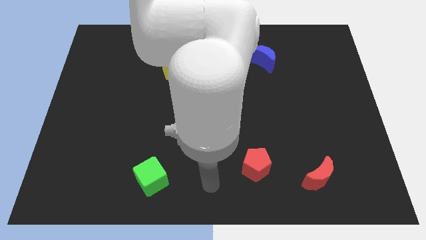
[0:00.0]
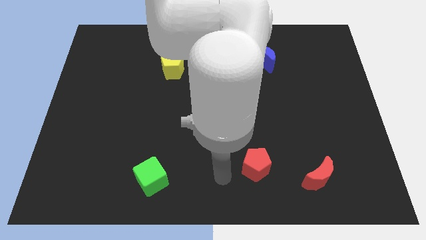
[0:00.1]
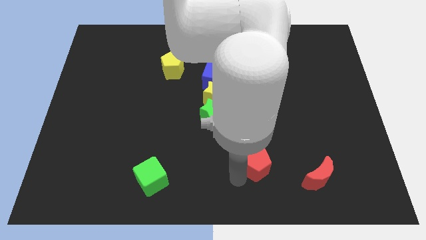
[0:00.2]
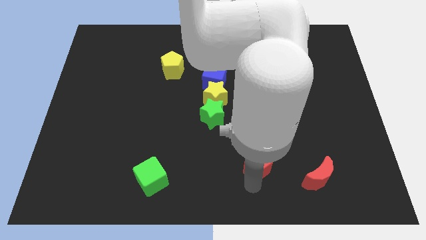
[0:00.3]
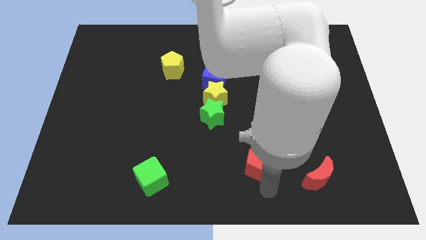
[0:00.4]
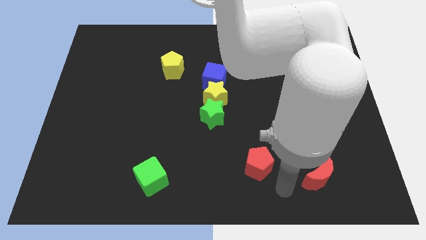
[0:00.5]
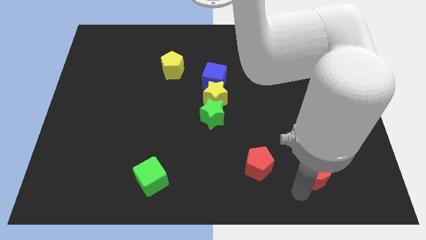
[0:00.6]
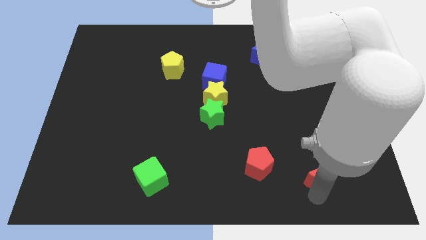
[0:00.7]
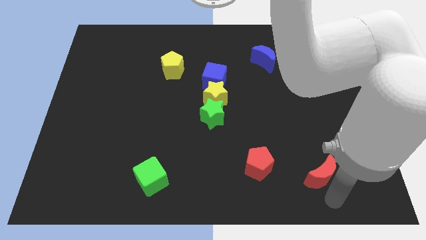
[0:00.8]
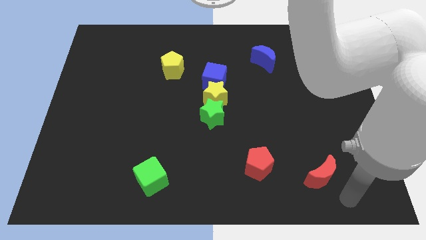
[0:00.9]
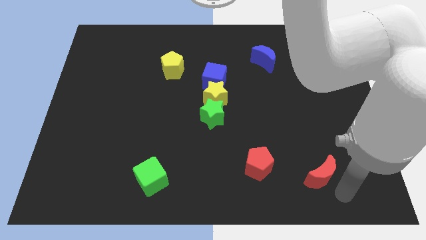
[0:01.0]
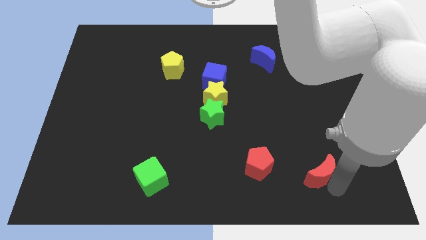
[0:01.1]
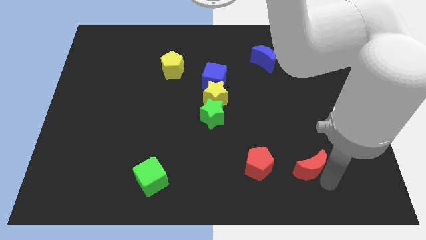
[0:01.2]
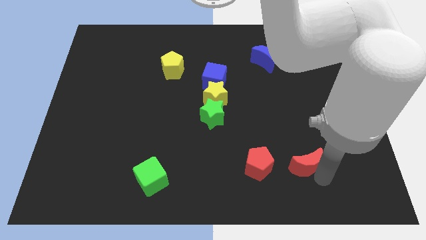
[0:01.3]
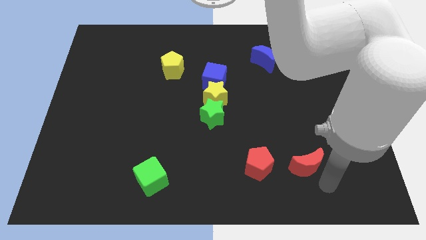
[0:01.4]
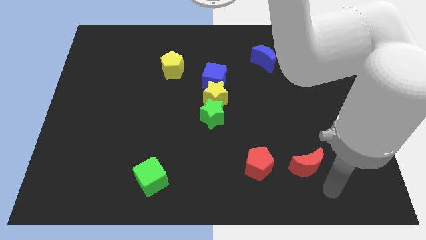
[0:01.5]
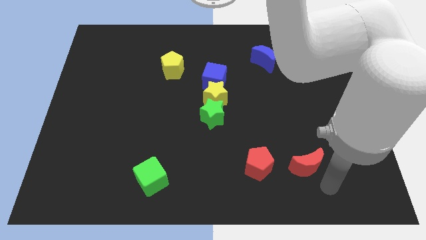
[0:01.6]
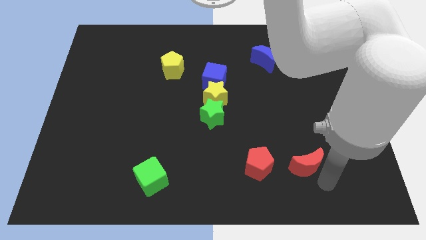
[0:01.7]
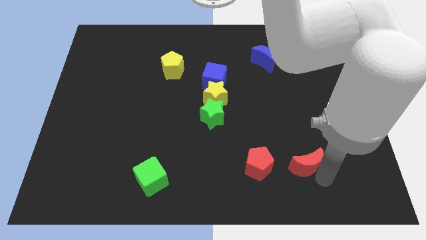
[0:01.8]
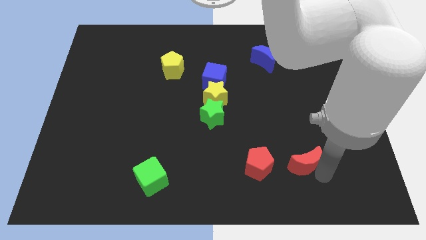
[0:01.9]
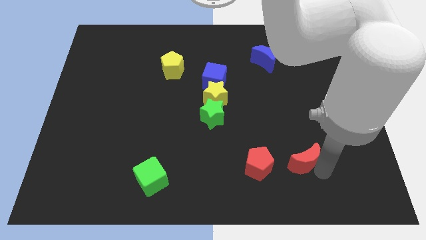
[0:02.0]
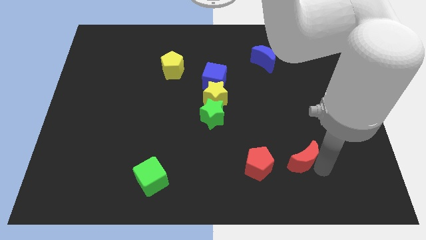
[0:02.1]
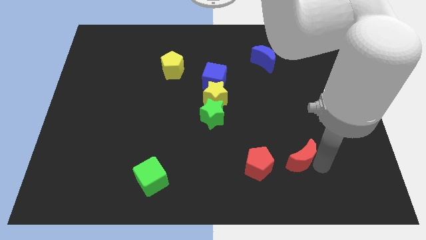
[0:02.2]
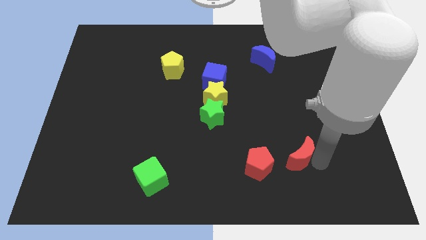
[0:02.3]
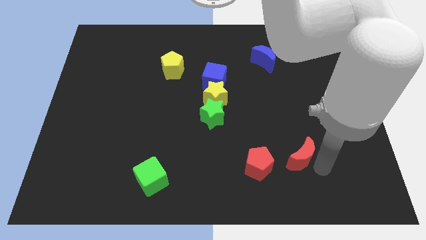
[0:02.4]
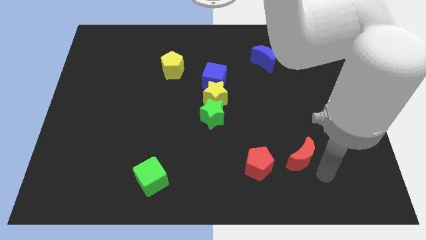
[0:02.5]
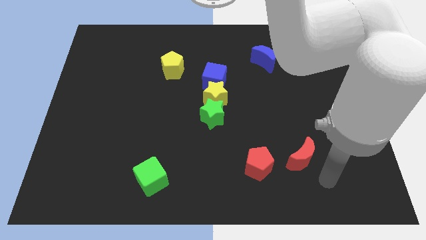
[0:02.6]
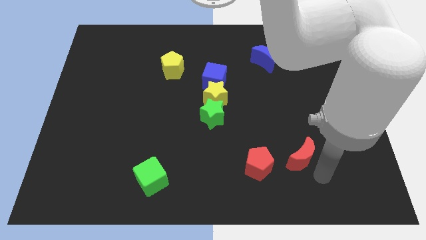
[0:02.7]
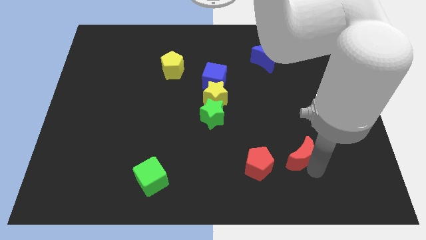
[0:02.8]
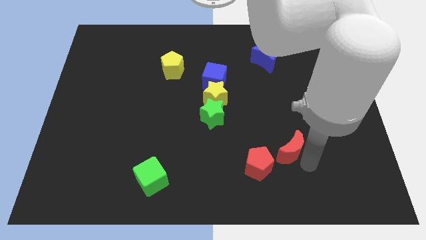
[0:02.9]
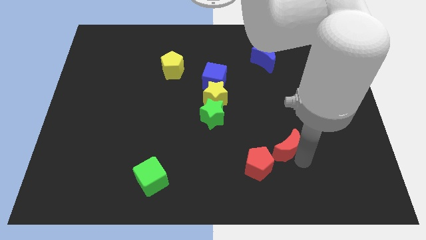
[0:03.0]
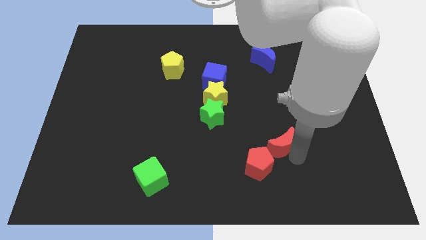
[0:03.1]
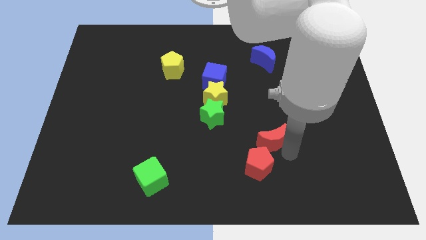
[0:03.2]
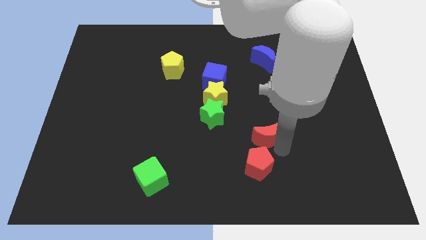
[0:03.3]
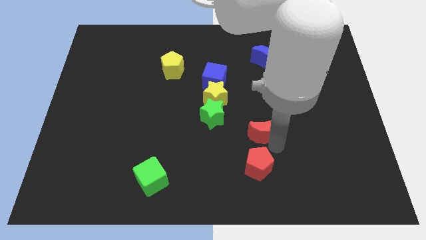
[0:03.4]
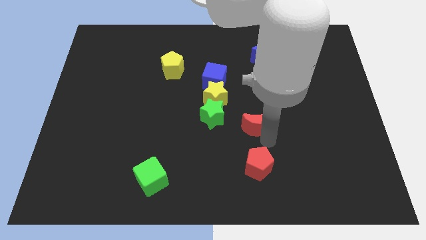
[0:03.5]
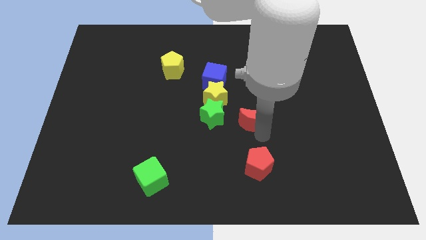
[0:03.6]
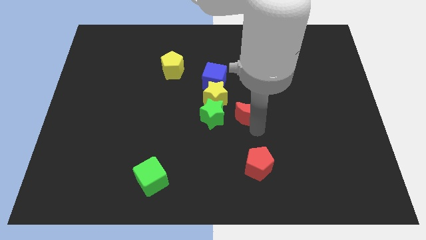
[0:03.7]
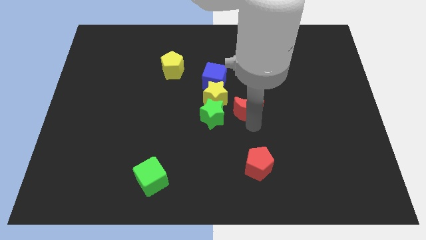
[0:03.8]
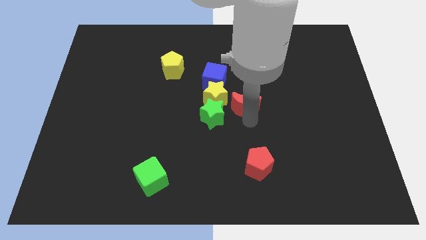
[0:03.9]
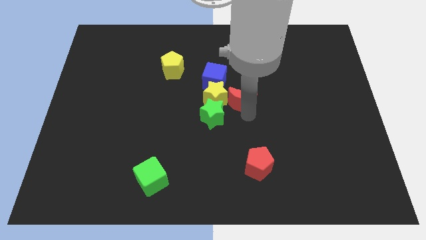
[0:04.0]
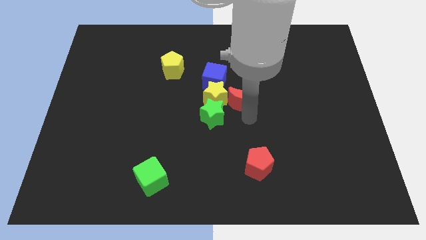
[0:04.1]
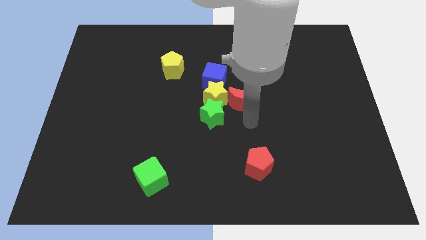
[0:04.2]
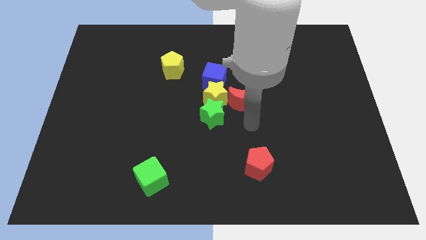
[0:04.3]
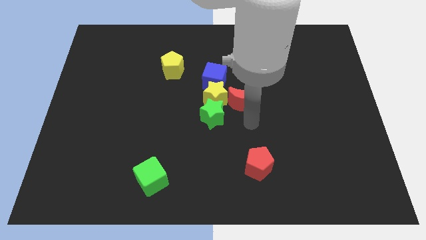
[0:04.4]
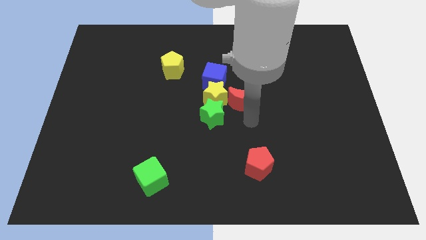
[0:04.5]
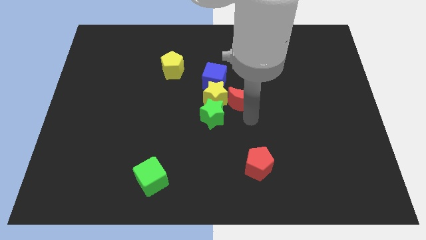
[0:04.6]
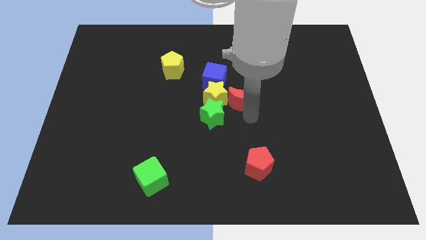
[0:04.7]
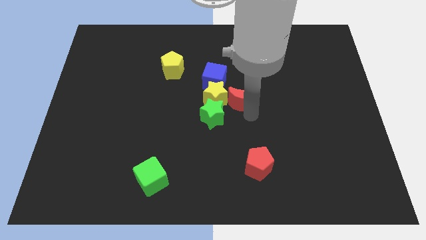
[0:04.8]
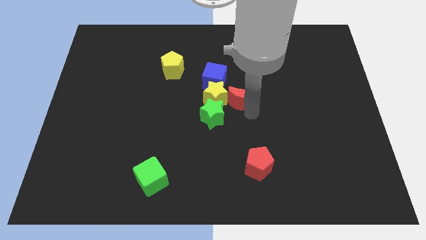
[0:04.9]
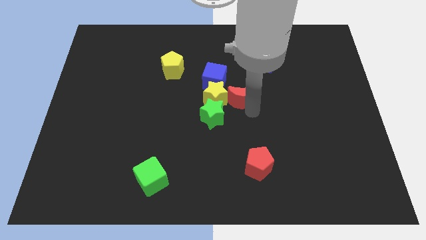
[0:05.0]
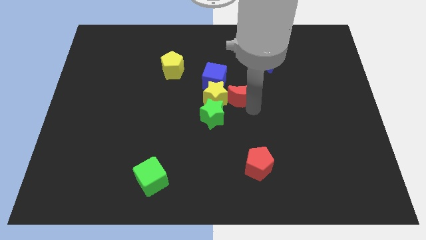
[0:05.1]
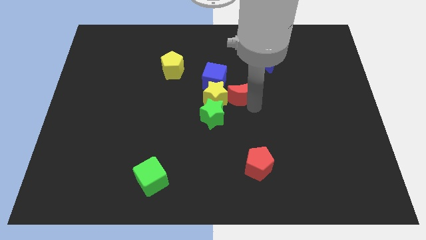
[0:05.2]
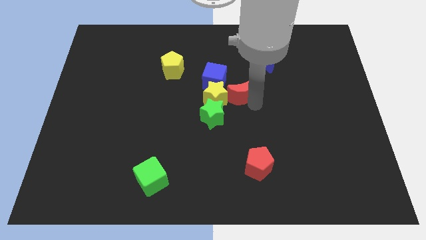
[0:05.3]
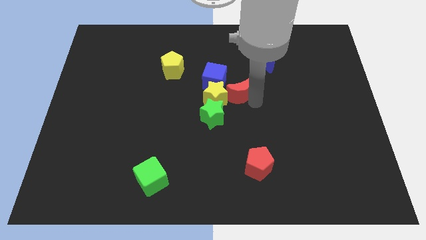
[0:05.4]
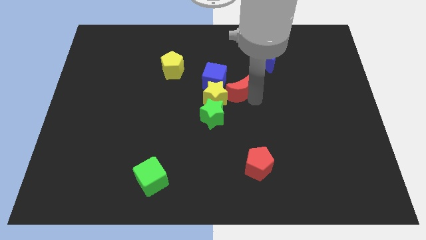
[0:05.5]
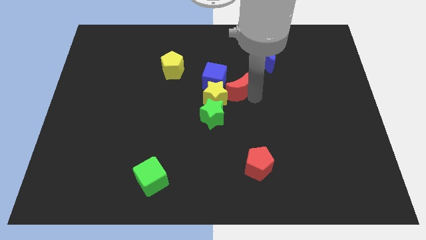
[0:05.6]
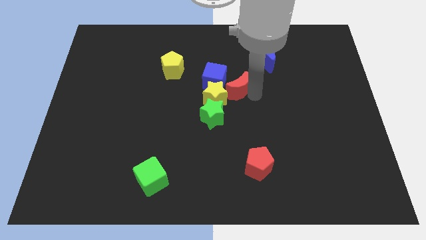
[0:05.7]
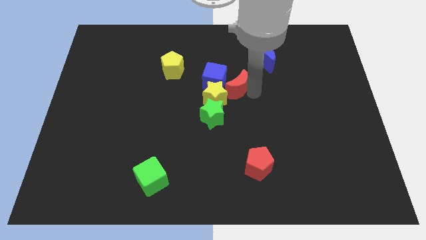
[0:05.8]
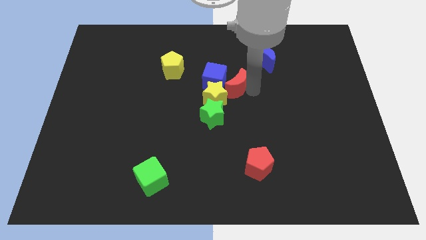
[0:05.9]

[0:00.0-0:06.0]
slide the red moon next to the blue cube
